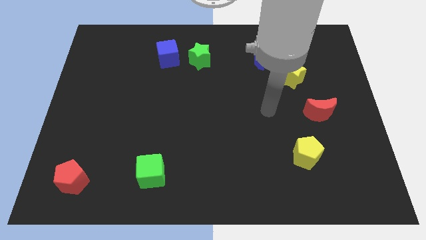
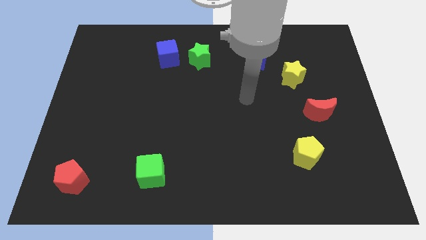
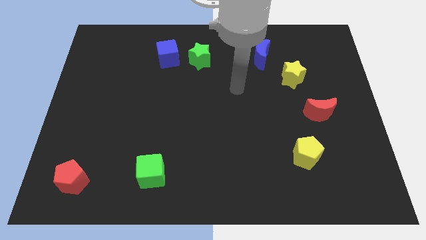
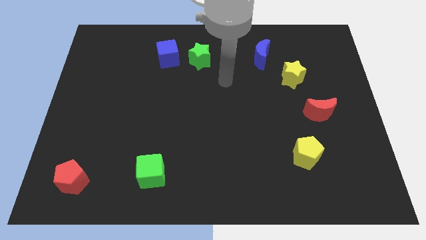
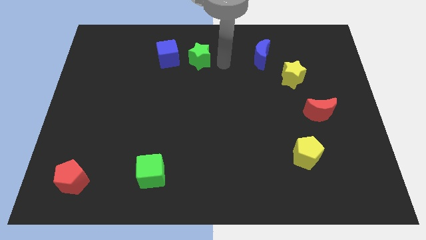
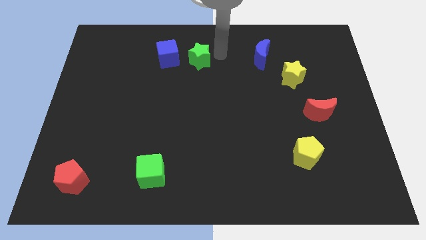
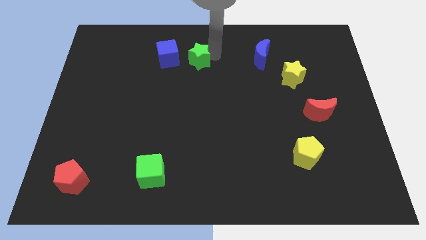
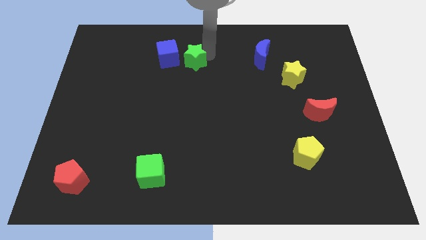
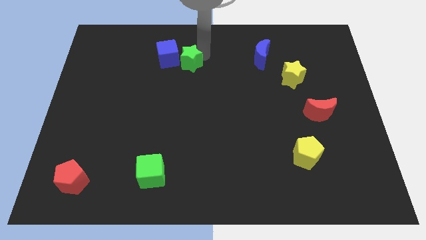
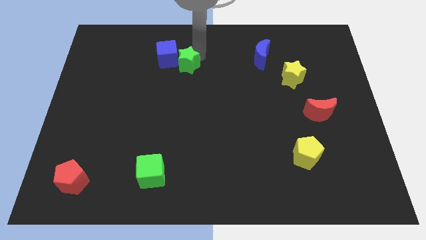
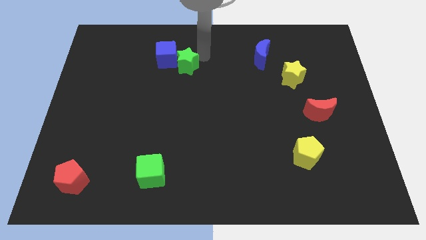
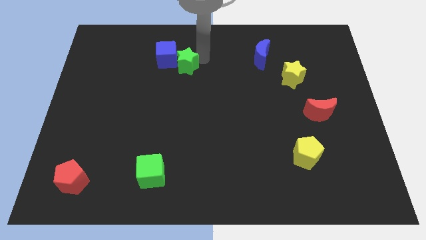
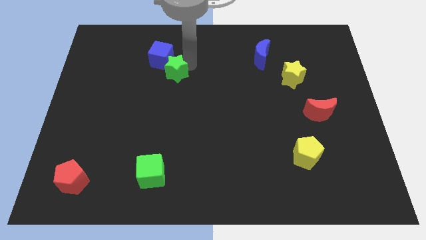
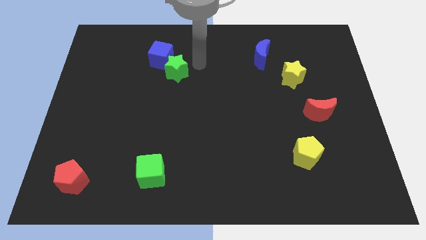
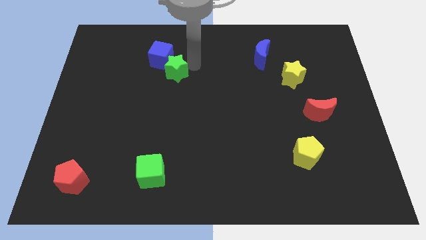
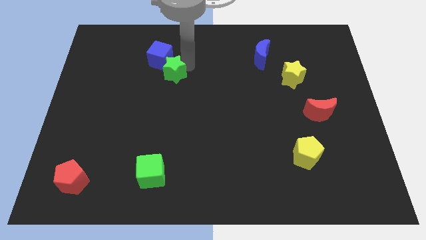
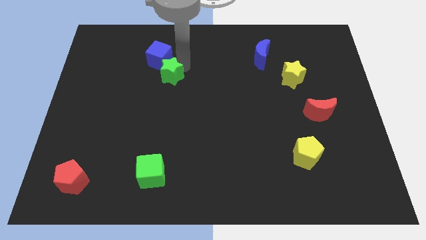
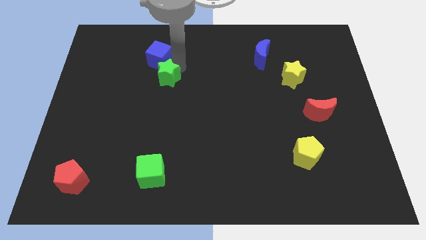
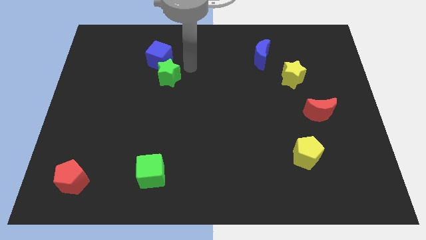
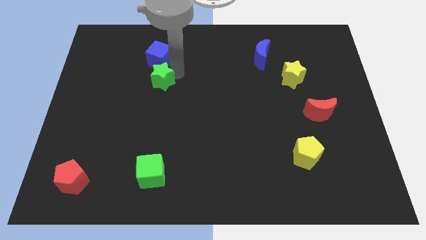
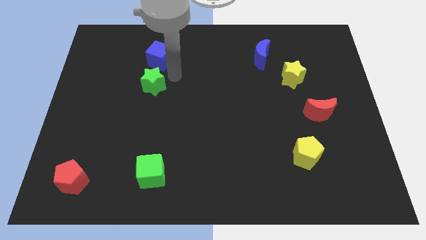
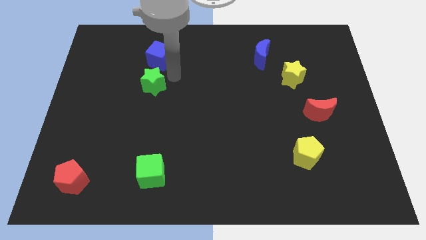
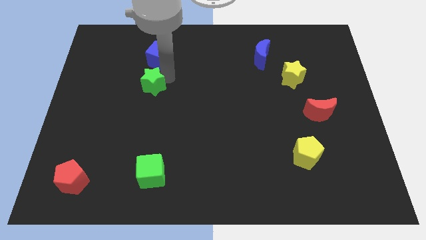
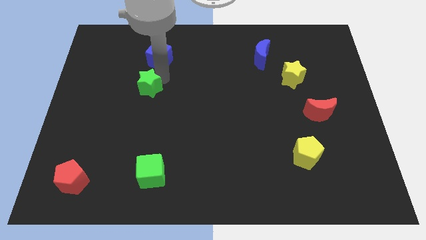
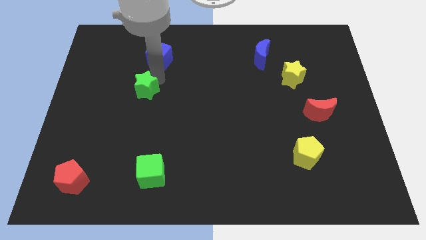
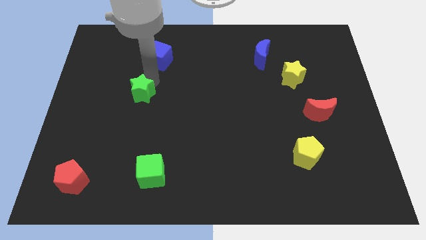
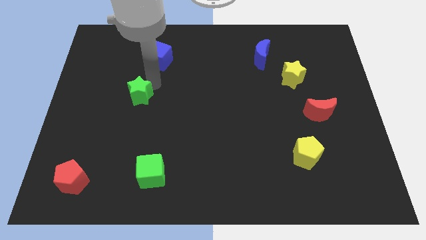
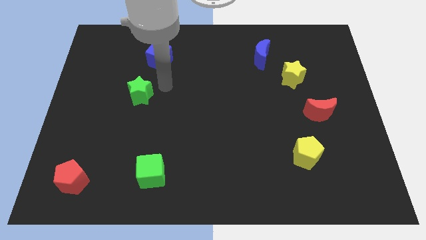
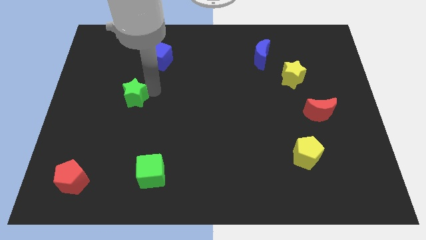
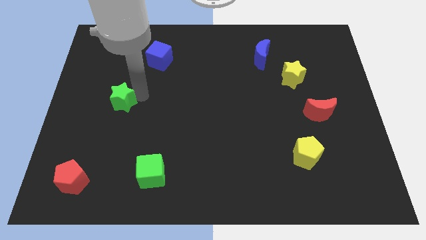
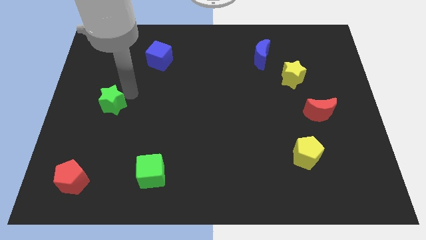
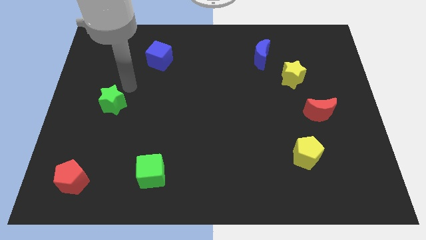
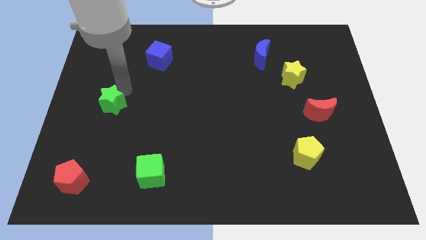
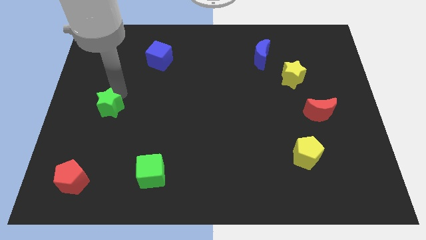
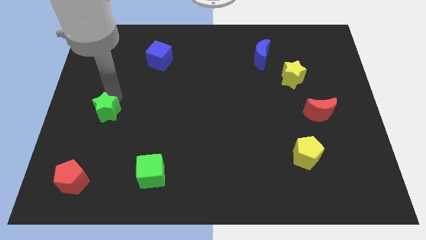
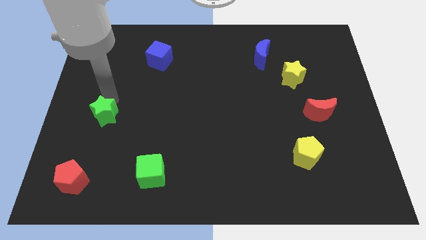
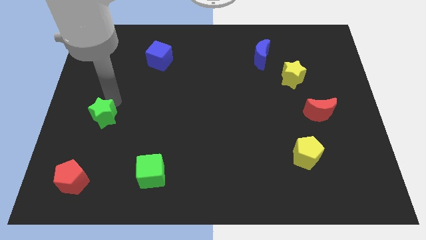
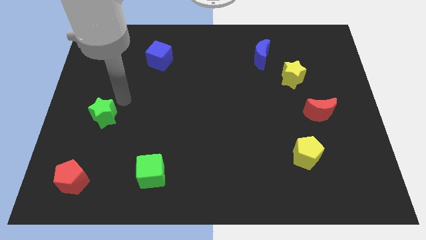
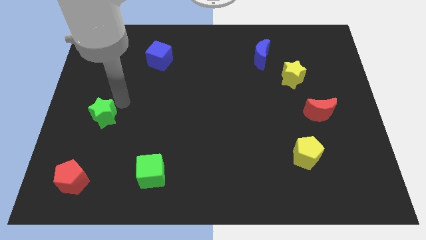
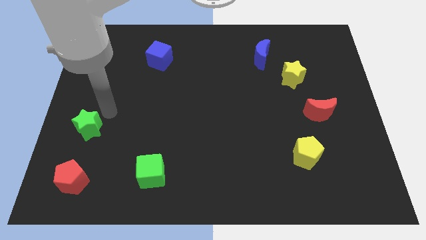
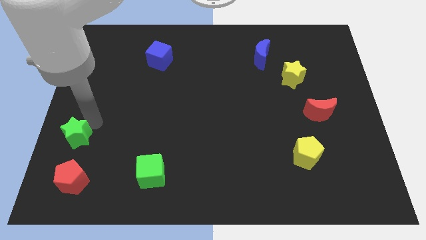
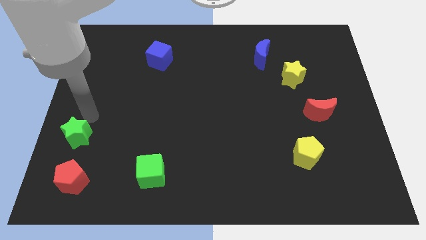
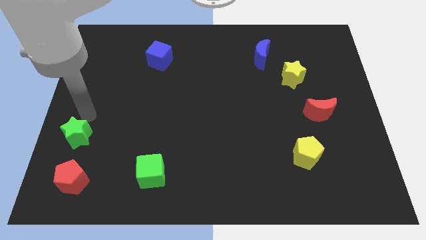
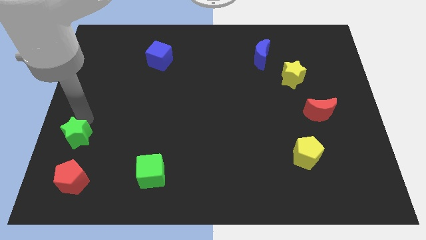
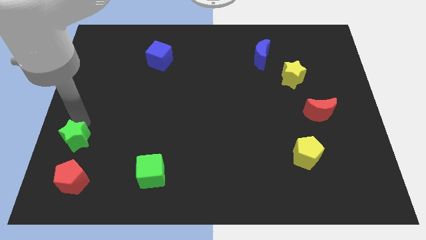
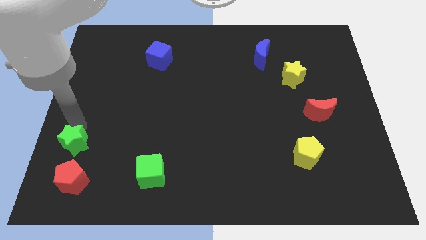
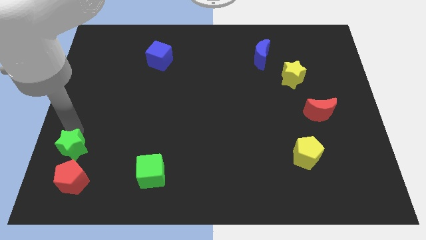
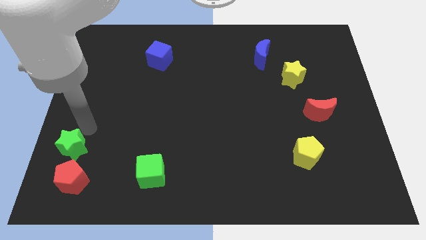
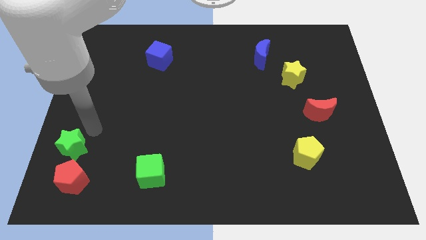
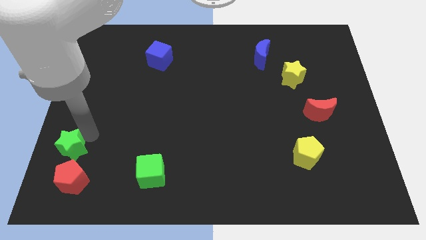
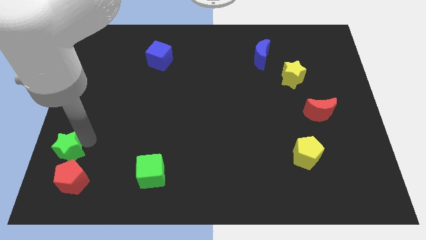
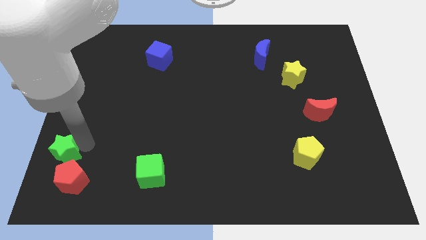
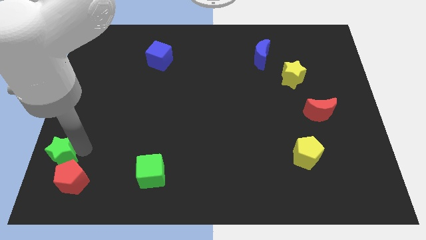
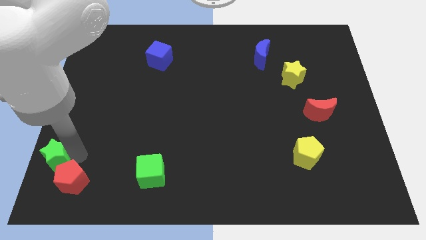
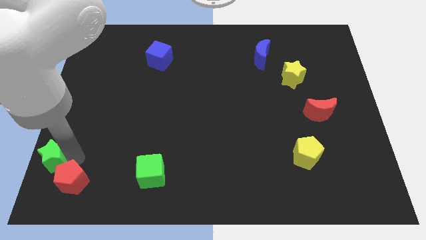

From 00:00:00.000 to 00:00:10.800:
put the green star to the lower left corner
